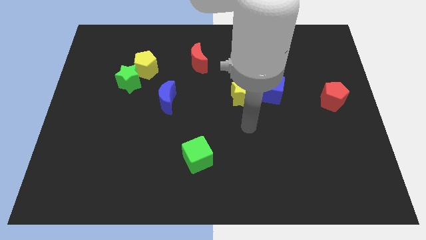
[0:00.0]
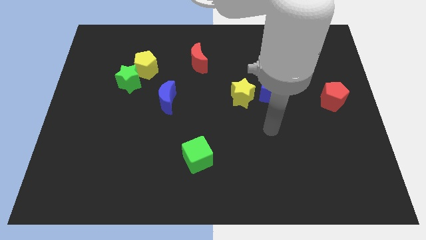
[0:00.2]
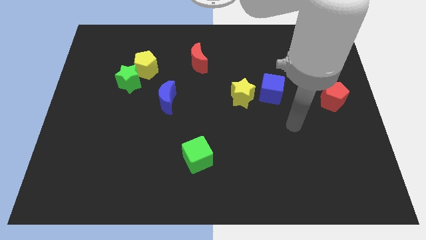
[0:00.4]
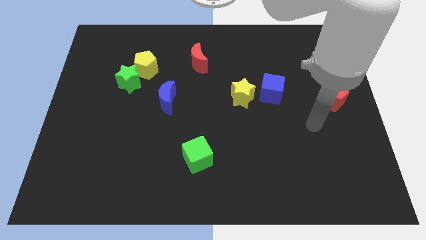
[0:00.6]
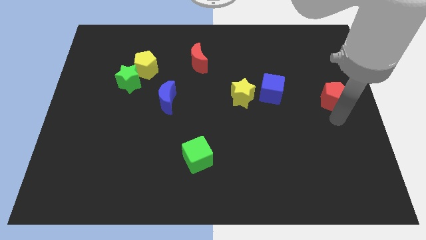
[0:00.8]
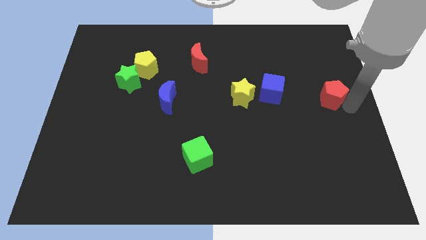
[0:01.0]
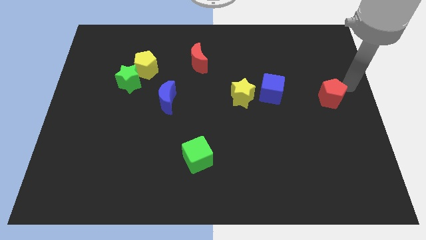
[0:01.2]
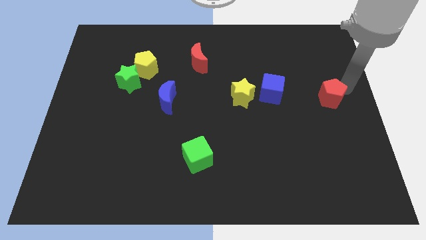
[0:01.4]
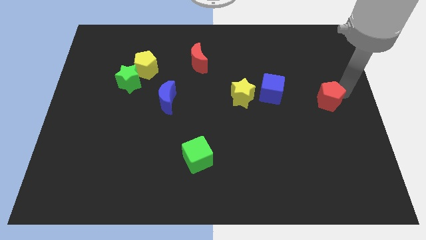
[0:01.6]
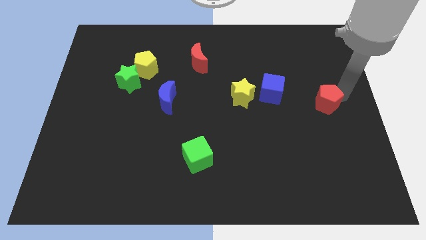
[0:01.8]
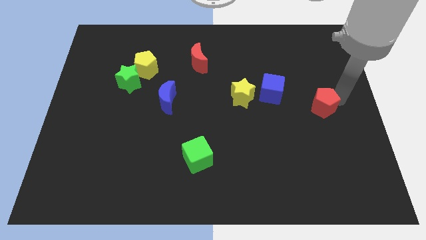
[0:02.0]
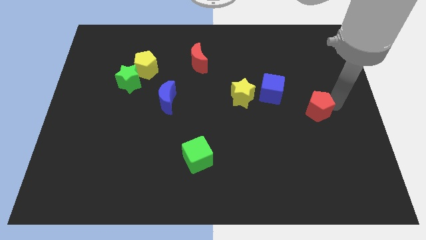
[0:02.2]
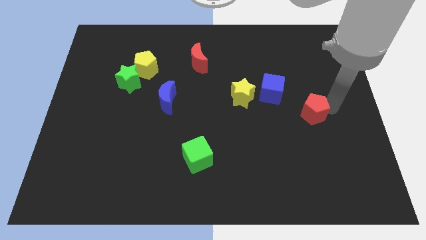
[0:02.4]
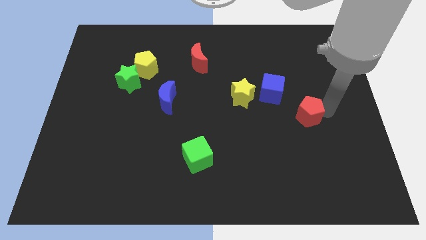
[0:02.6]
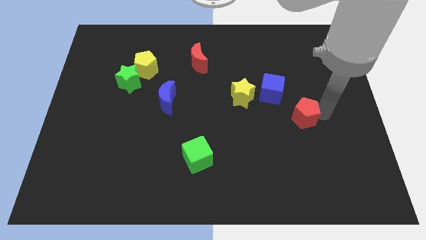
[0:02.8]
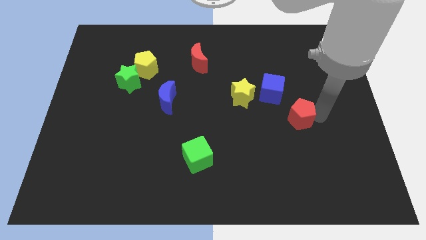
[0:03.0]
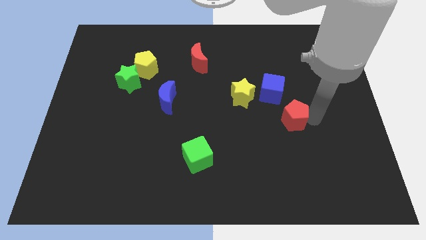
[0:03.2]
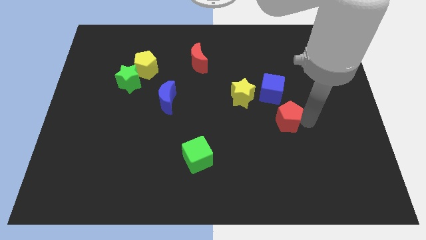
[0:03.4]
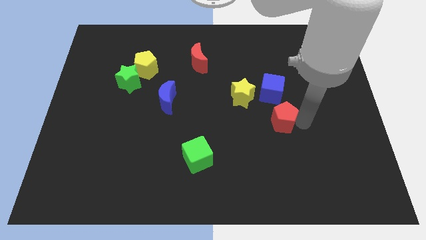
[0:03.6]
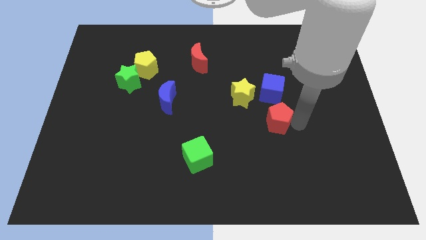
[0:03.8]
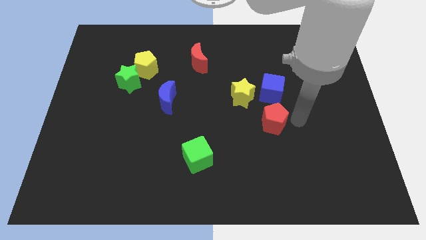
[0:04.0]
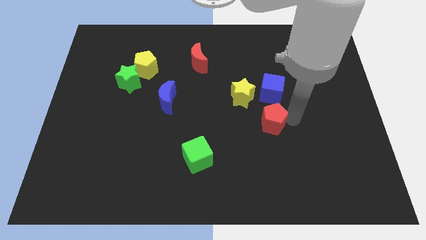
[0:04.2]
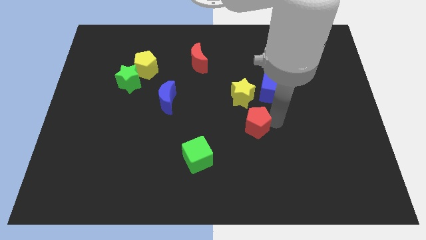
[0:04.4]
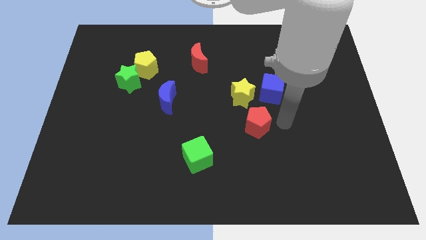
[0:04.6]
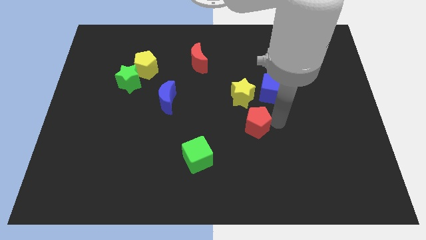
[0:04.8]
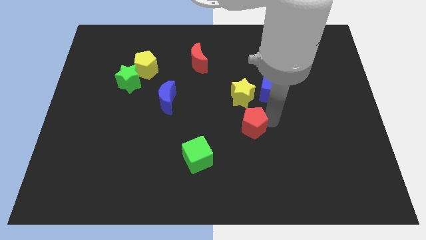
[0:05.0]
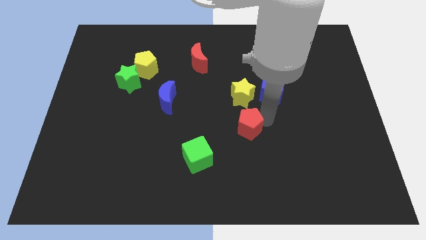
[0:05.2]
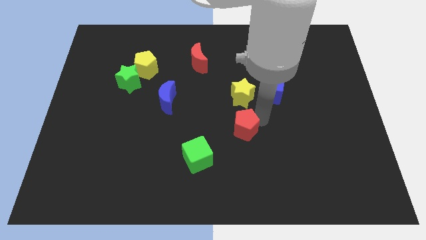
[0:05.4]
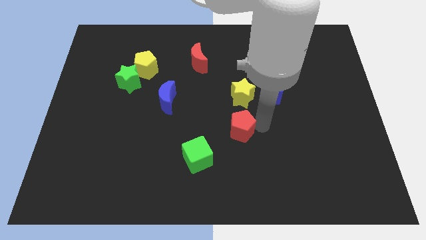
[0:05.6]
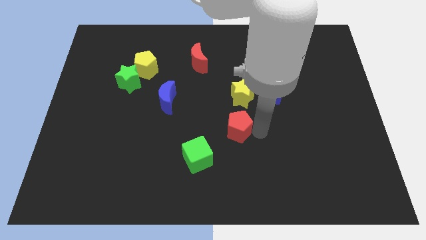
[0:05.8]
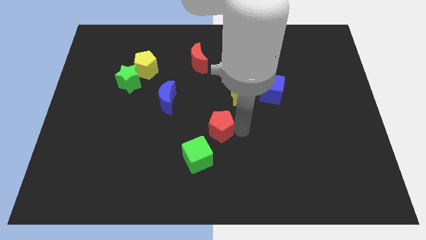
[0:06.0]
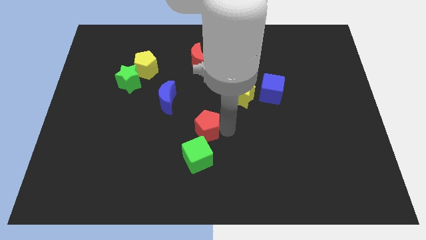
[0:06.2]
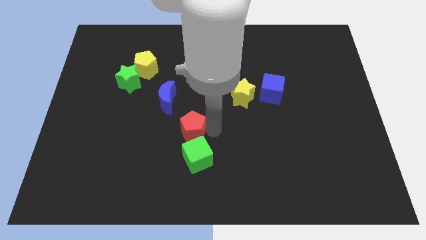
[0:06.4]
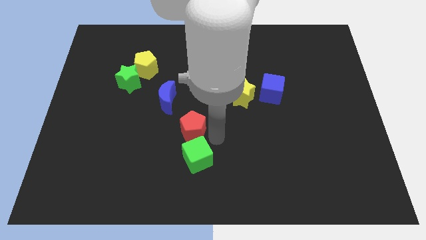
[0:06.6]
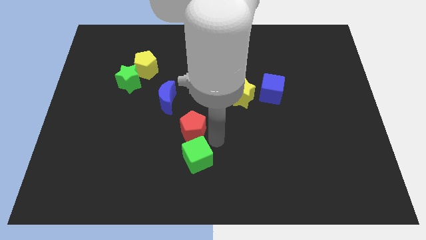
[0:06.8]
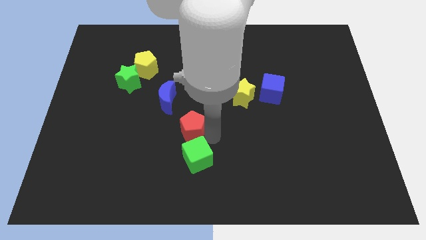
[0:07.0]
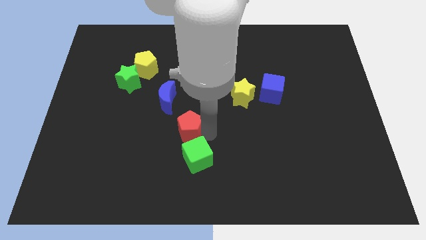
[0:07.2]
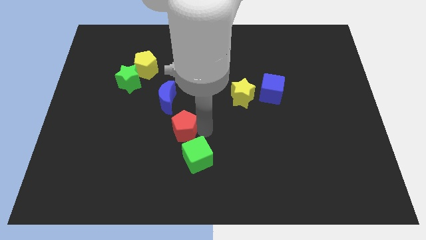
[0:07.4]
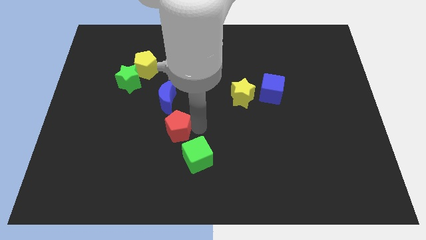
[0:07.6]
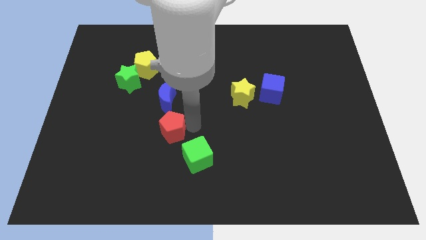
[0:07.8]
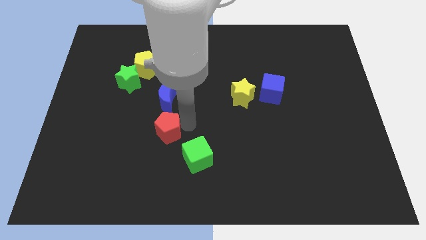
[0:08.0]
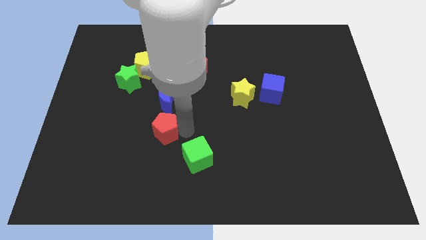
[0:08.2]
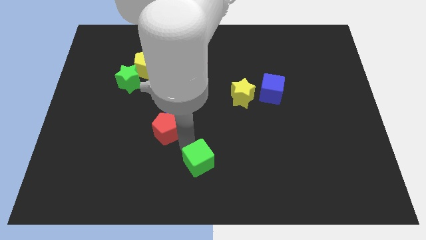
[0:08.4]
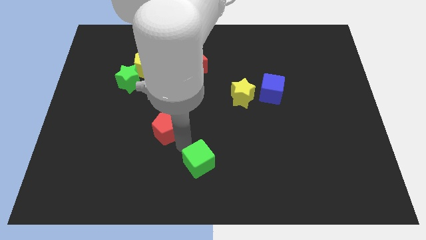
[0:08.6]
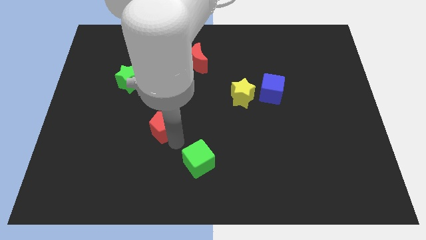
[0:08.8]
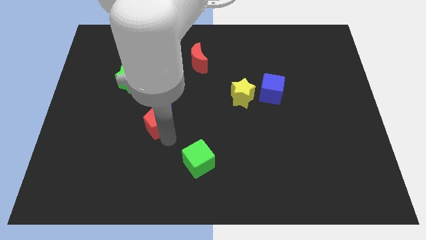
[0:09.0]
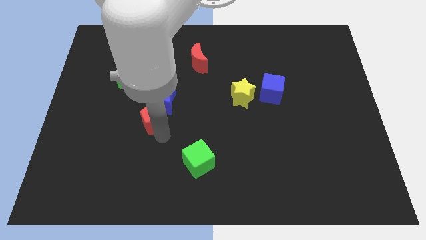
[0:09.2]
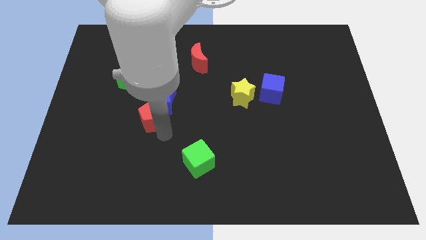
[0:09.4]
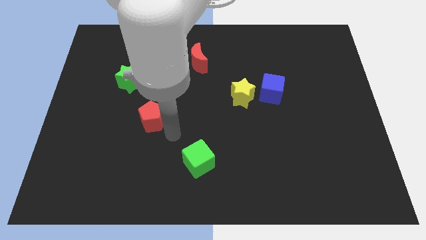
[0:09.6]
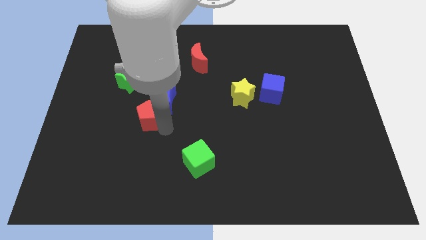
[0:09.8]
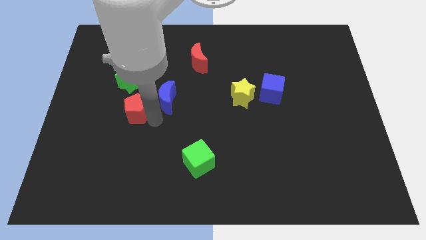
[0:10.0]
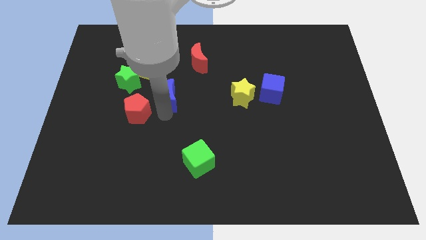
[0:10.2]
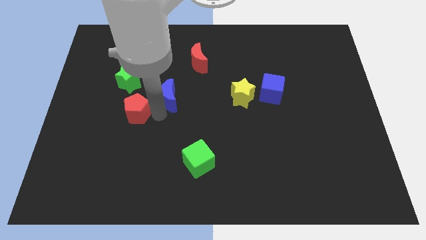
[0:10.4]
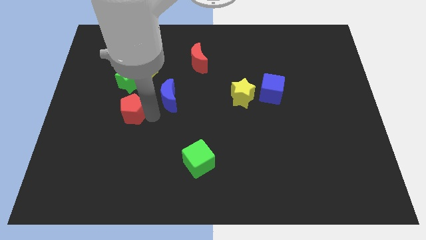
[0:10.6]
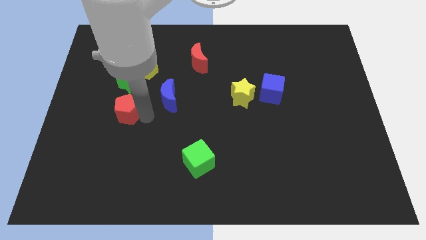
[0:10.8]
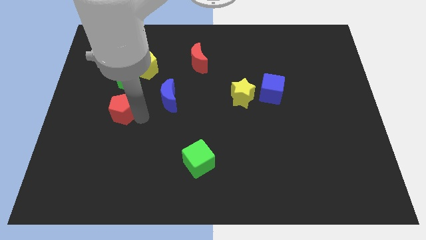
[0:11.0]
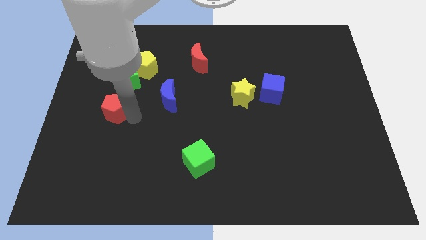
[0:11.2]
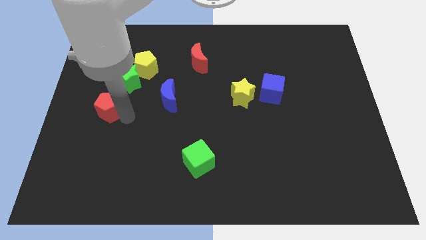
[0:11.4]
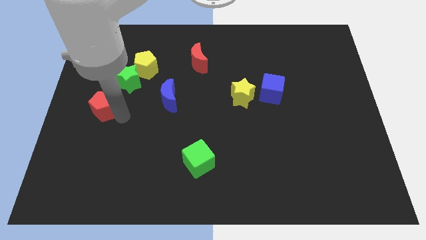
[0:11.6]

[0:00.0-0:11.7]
put the red pentagon to the left side

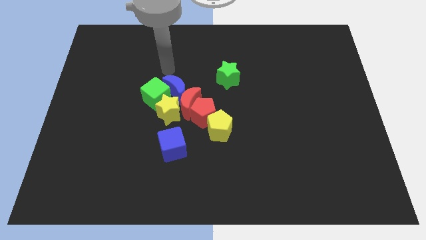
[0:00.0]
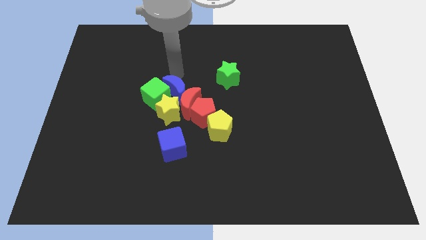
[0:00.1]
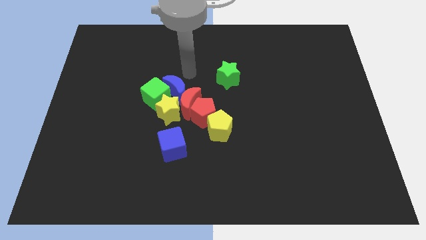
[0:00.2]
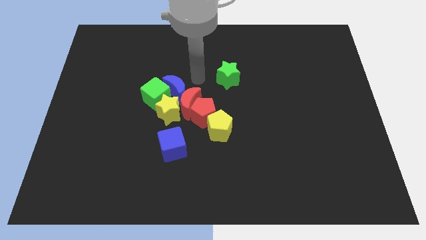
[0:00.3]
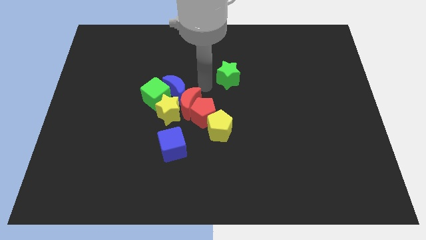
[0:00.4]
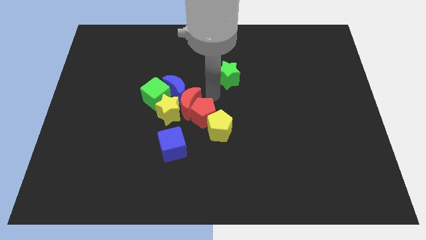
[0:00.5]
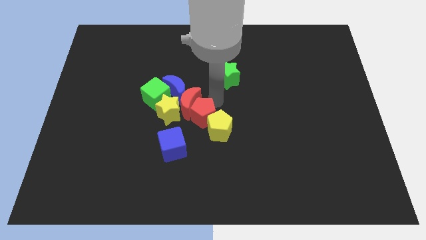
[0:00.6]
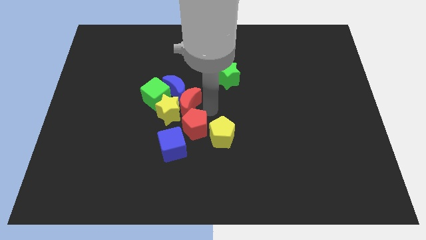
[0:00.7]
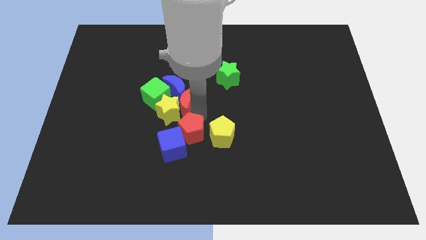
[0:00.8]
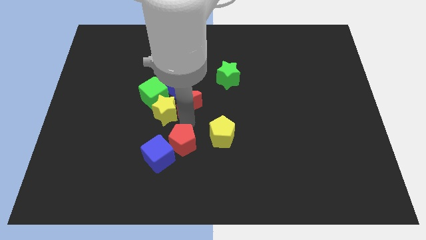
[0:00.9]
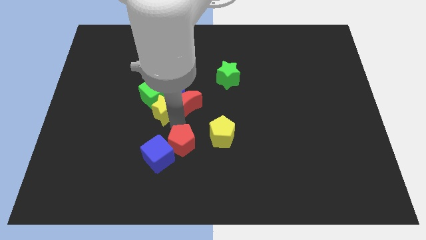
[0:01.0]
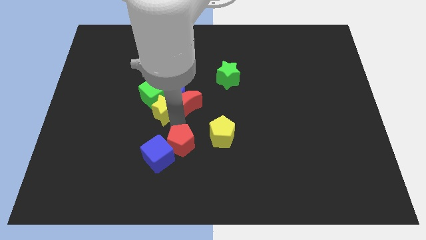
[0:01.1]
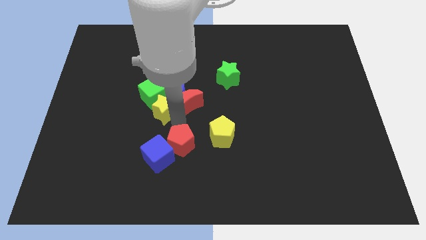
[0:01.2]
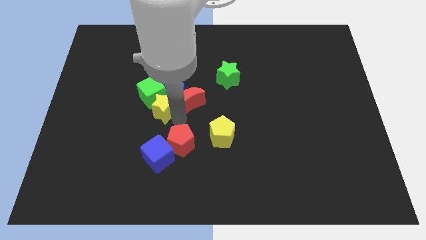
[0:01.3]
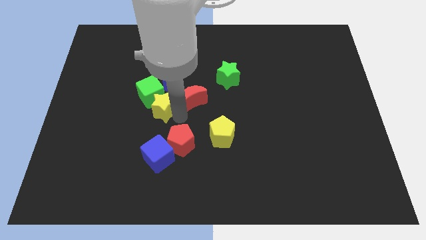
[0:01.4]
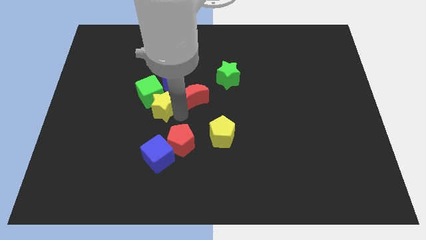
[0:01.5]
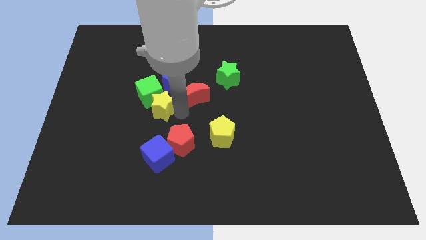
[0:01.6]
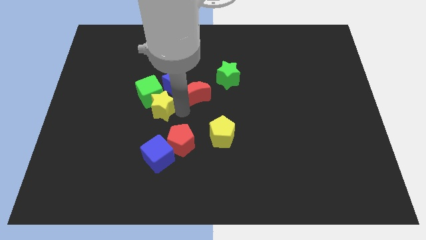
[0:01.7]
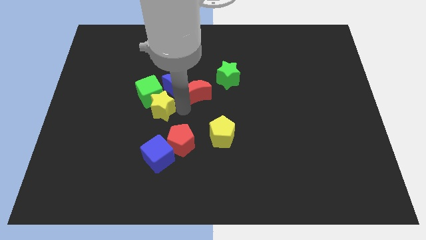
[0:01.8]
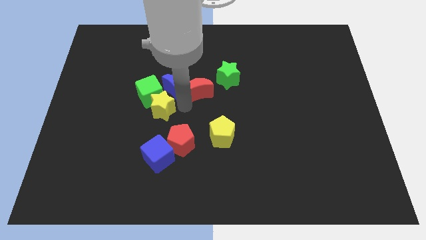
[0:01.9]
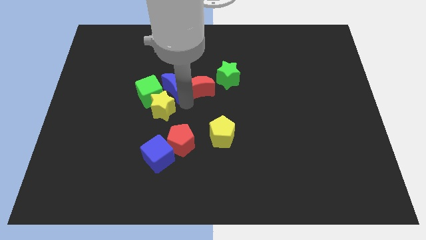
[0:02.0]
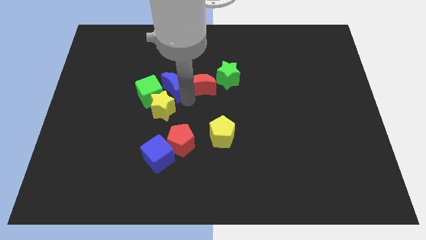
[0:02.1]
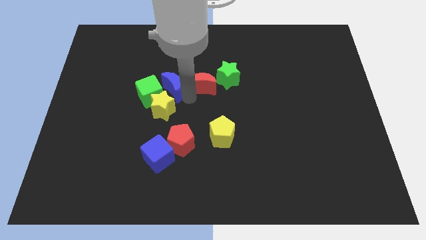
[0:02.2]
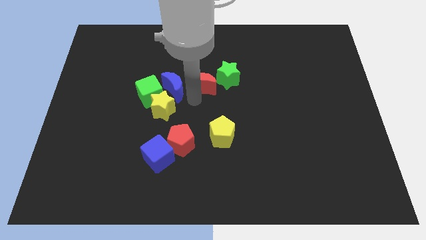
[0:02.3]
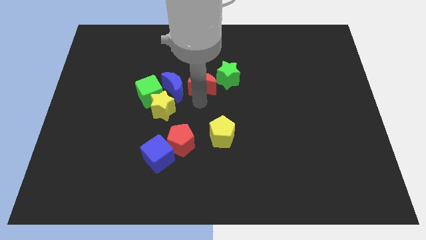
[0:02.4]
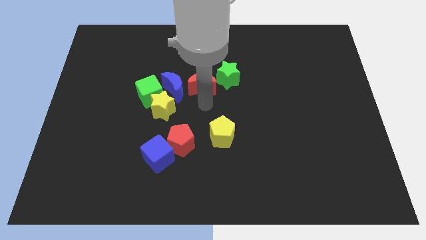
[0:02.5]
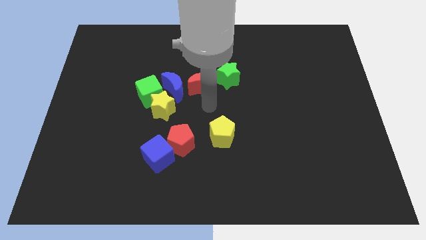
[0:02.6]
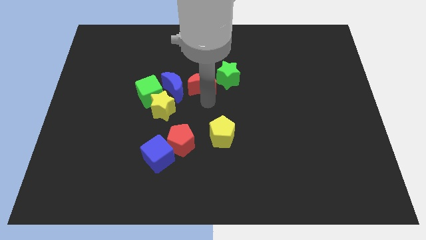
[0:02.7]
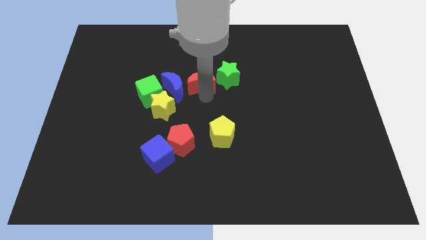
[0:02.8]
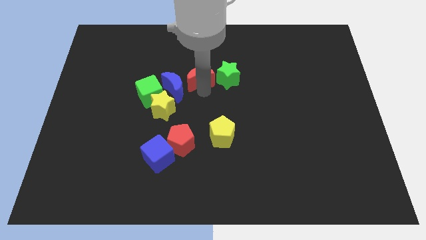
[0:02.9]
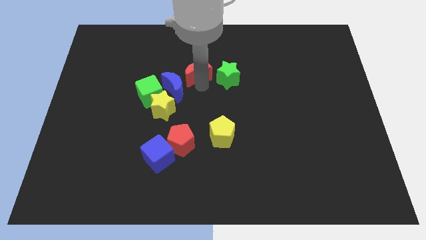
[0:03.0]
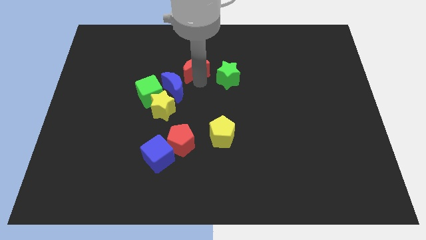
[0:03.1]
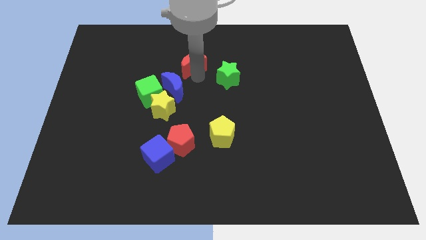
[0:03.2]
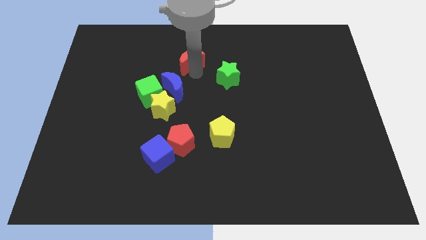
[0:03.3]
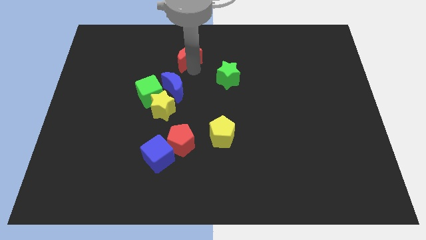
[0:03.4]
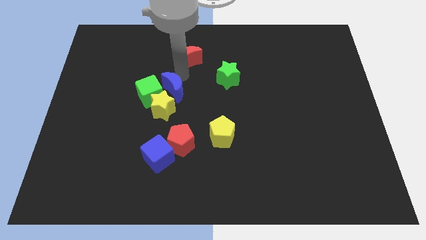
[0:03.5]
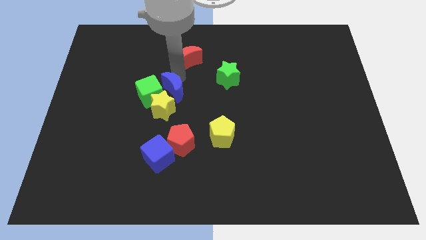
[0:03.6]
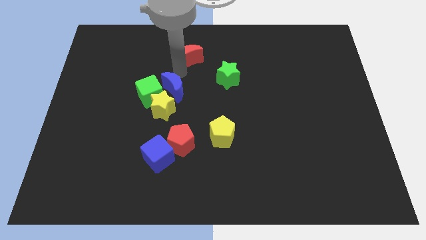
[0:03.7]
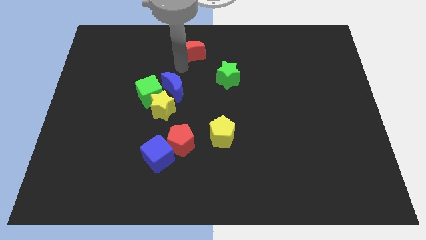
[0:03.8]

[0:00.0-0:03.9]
push the red moon to the top side
